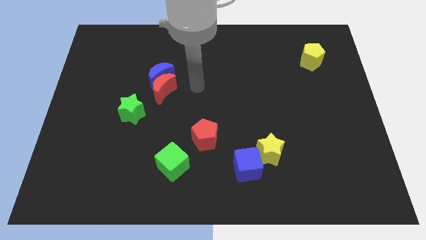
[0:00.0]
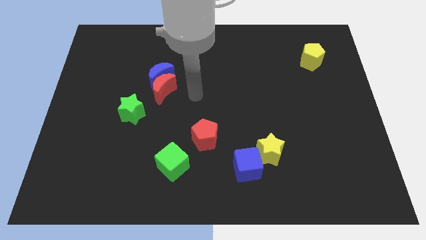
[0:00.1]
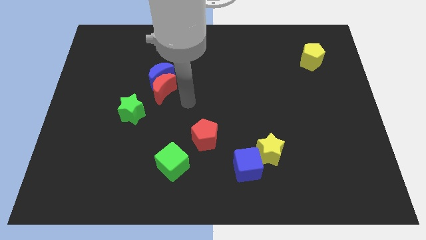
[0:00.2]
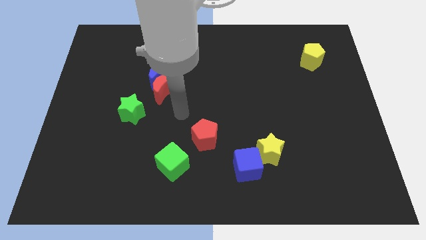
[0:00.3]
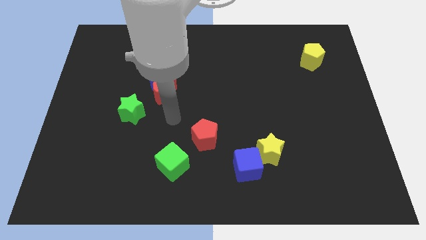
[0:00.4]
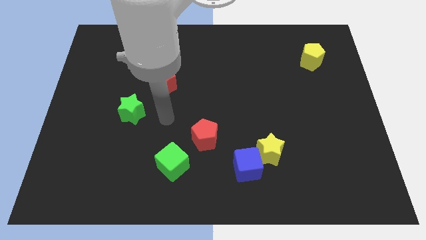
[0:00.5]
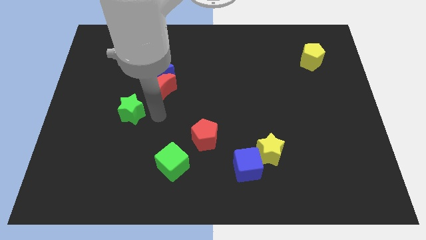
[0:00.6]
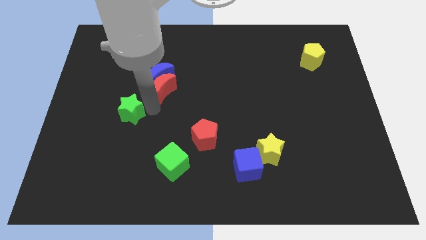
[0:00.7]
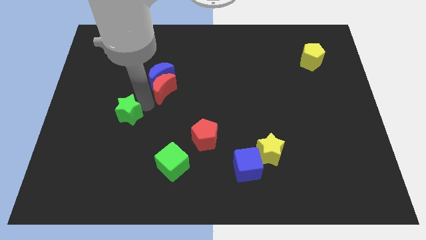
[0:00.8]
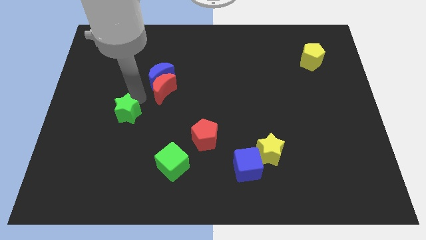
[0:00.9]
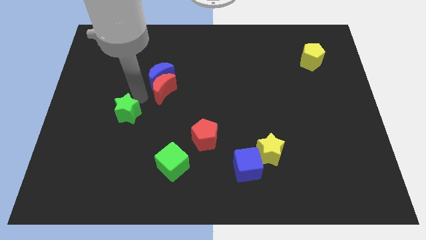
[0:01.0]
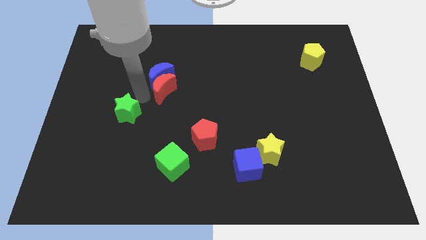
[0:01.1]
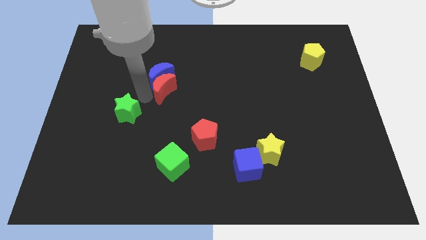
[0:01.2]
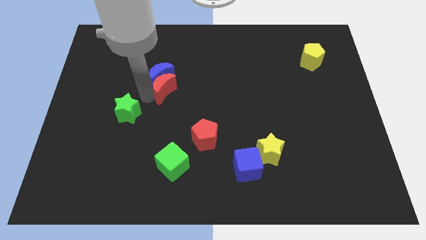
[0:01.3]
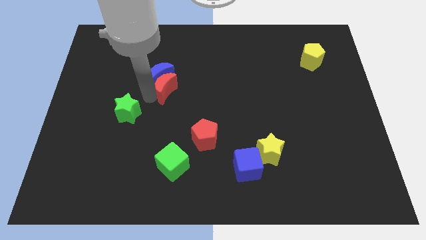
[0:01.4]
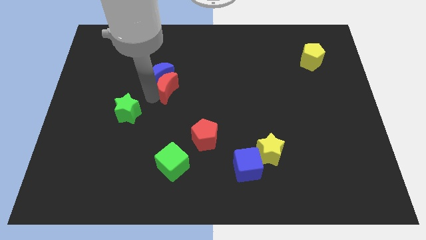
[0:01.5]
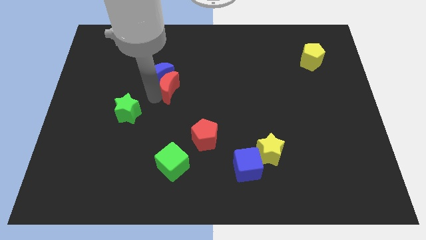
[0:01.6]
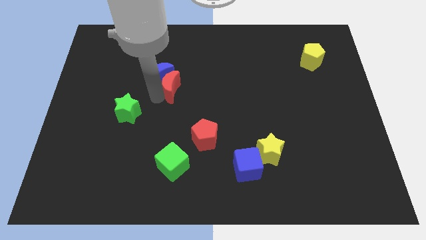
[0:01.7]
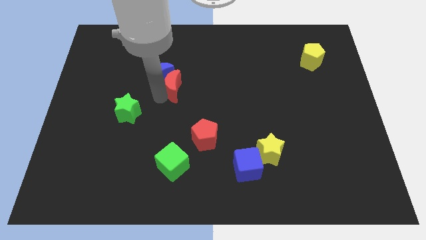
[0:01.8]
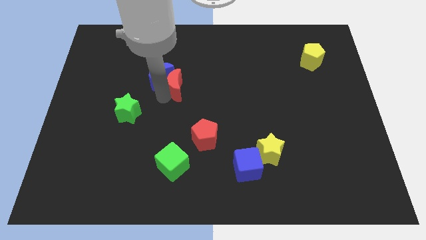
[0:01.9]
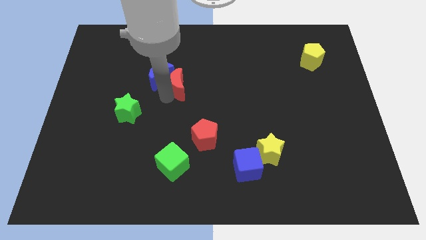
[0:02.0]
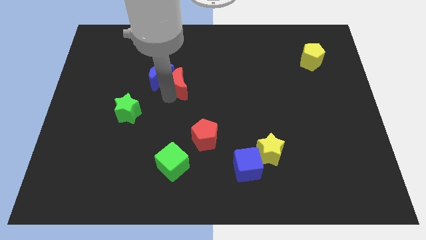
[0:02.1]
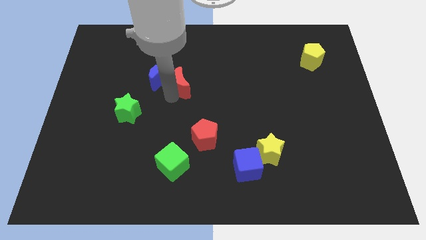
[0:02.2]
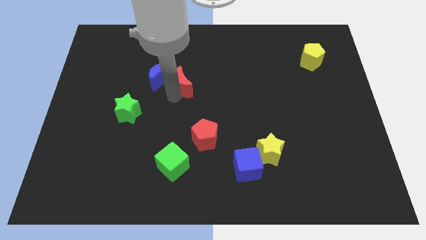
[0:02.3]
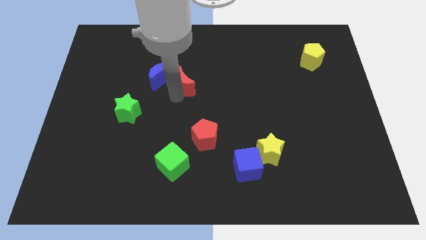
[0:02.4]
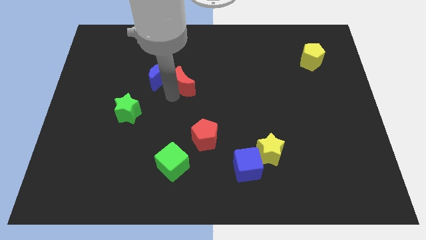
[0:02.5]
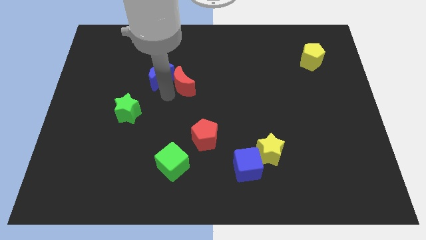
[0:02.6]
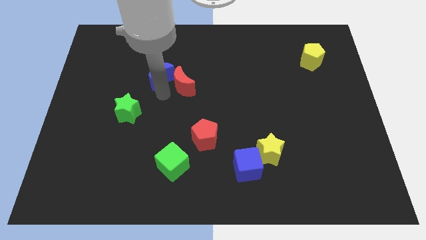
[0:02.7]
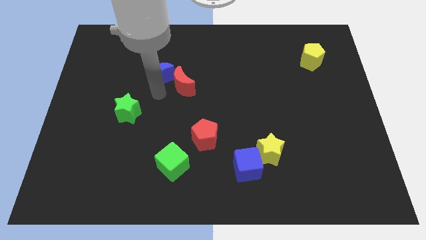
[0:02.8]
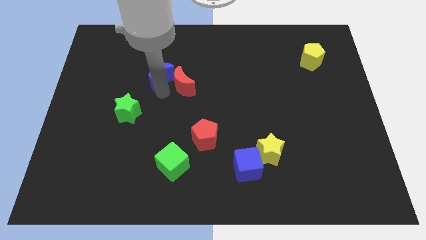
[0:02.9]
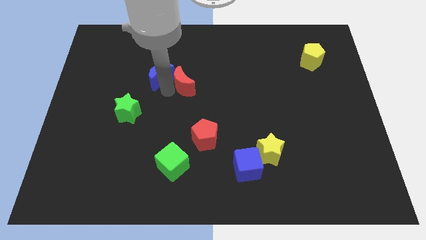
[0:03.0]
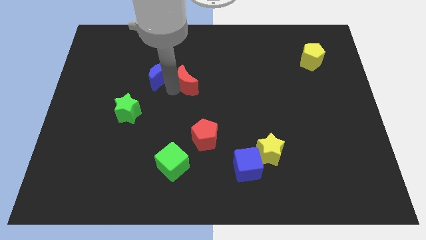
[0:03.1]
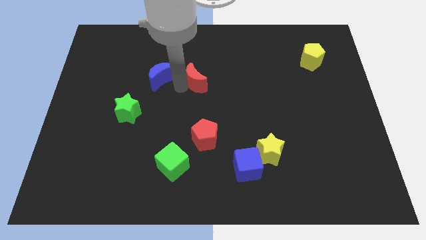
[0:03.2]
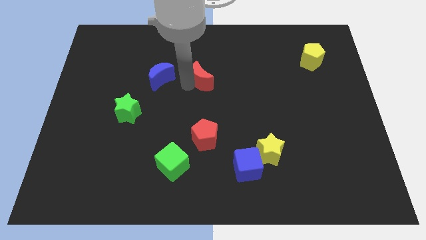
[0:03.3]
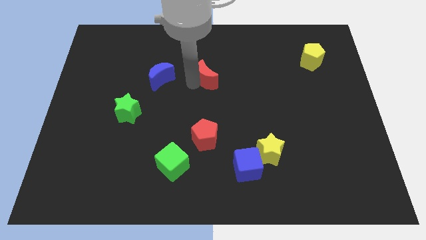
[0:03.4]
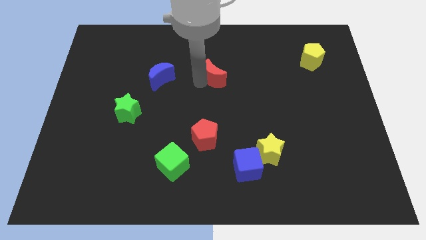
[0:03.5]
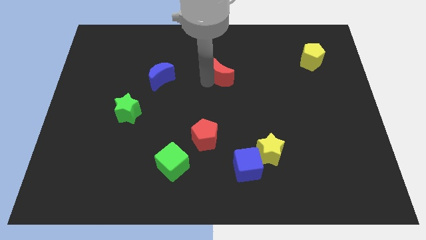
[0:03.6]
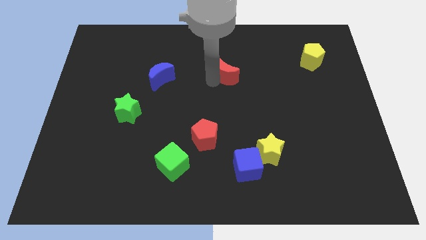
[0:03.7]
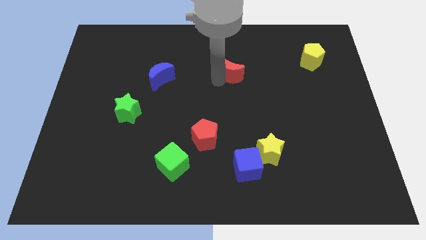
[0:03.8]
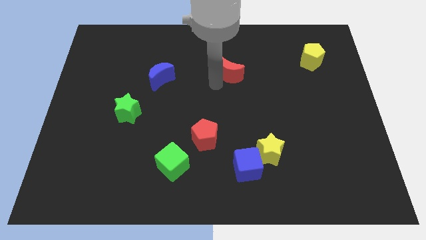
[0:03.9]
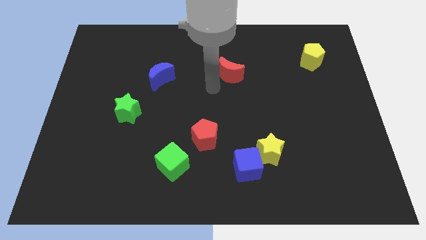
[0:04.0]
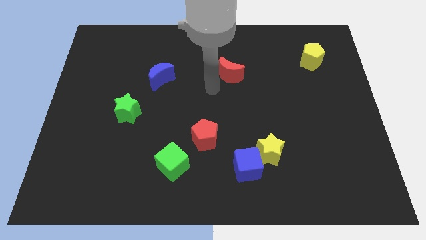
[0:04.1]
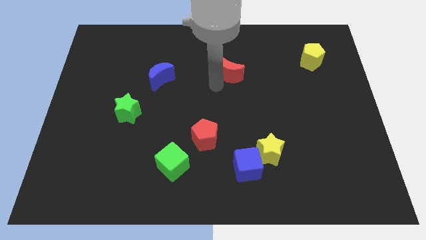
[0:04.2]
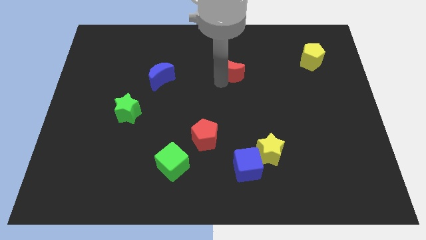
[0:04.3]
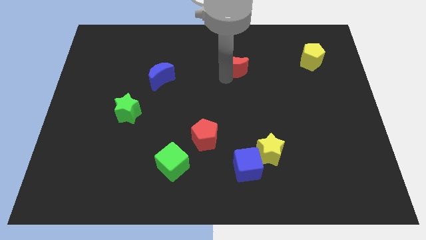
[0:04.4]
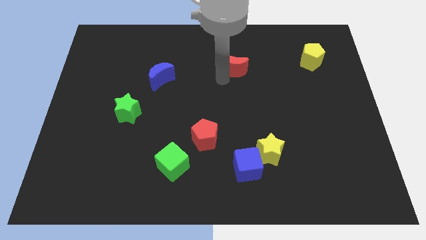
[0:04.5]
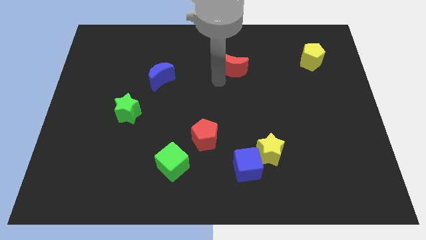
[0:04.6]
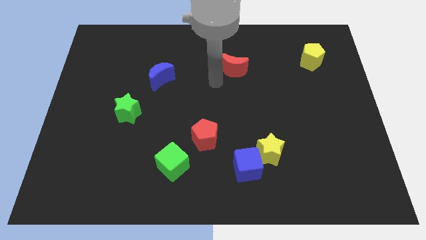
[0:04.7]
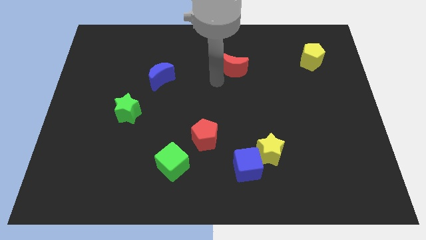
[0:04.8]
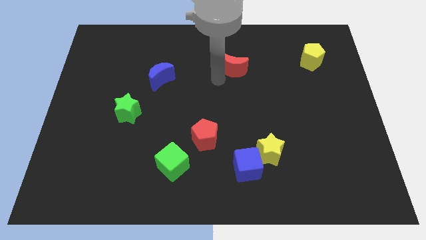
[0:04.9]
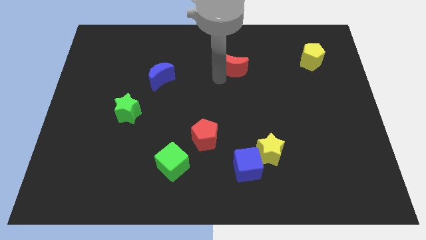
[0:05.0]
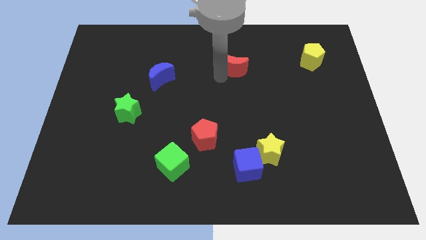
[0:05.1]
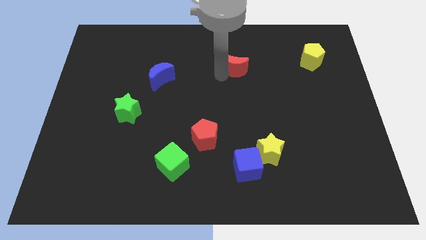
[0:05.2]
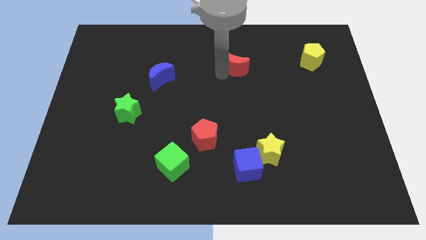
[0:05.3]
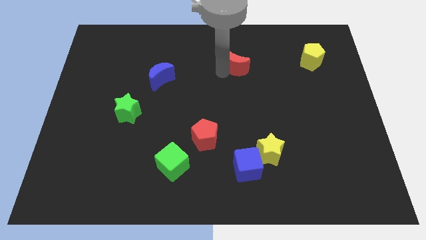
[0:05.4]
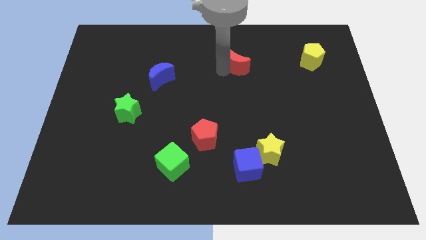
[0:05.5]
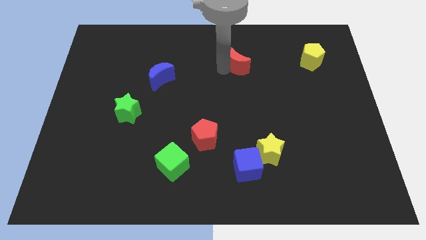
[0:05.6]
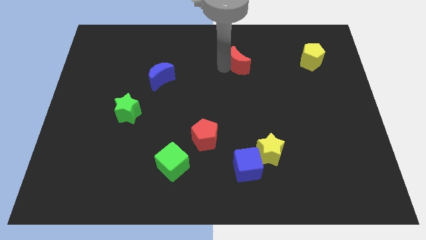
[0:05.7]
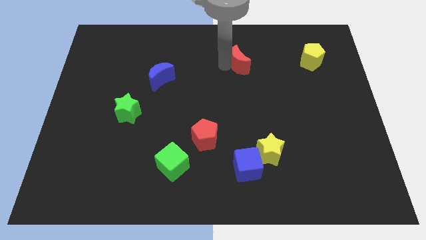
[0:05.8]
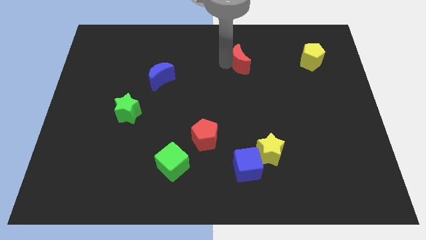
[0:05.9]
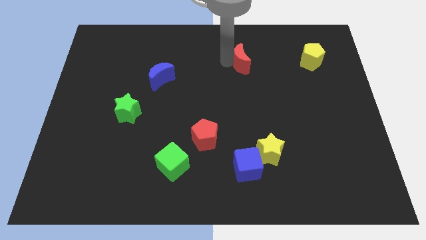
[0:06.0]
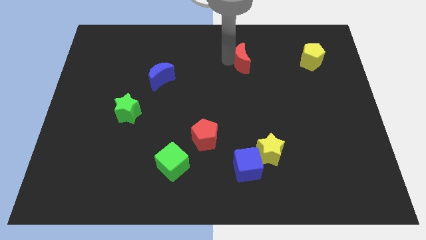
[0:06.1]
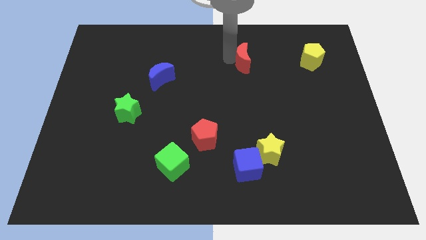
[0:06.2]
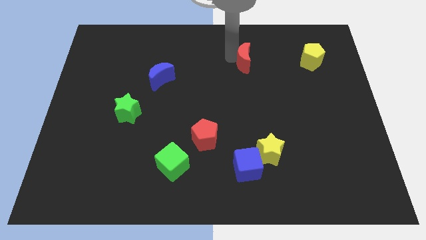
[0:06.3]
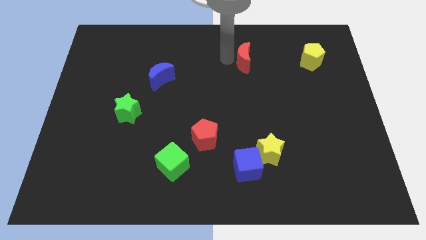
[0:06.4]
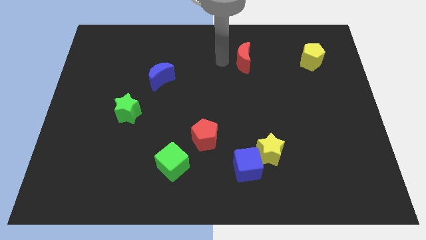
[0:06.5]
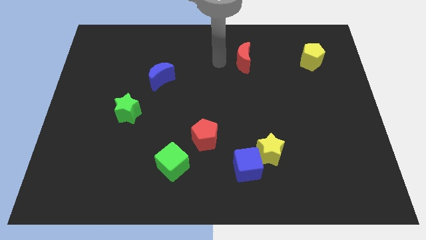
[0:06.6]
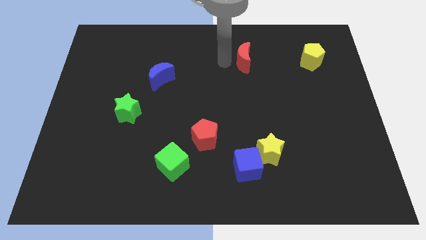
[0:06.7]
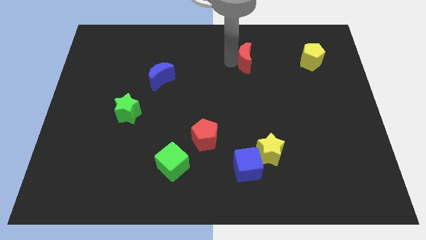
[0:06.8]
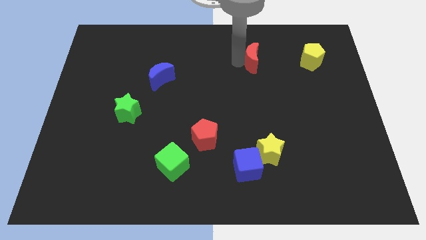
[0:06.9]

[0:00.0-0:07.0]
push the red moon just left of the yellow pentagon
